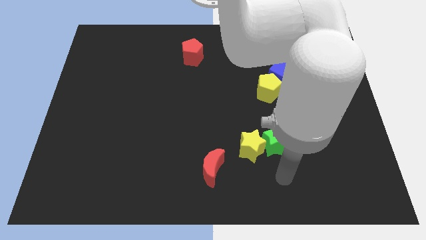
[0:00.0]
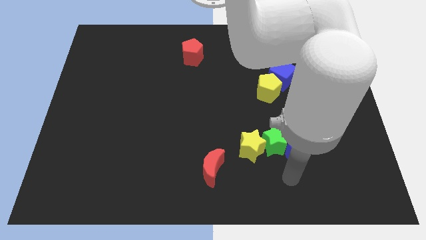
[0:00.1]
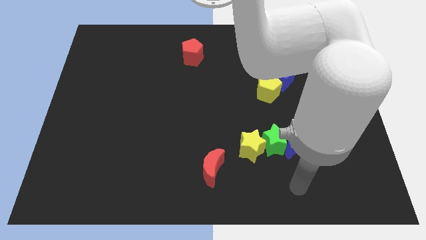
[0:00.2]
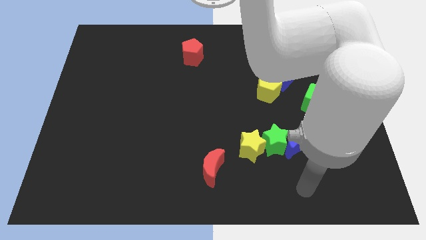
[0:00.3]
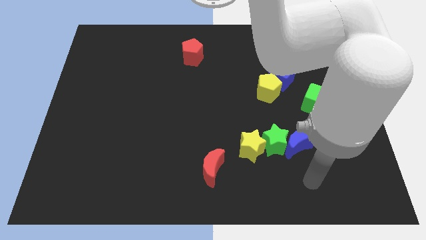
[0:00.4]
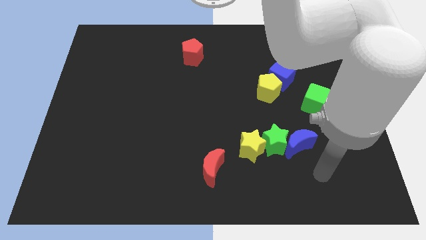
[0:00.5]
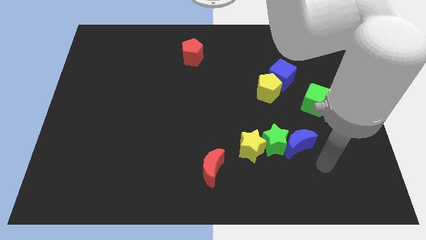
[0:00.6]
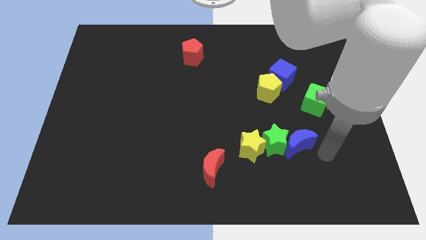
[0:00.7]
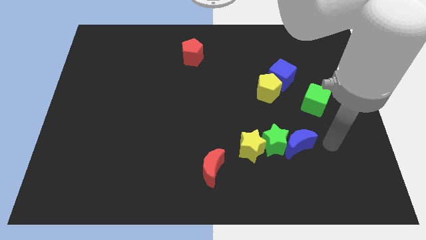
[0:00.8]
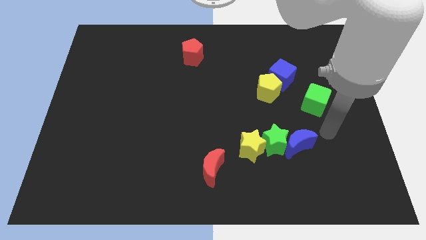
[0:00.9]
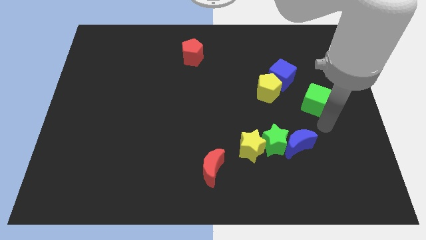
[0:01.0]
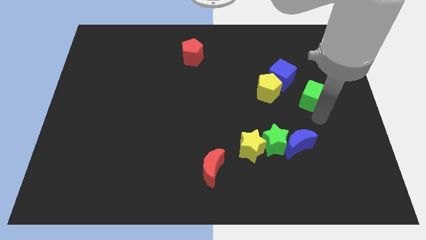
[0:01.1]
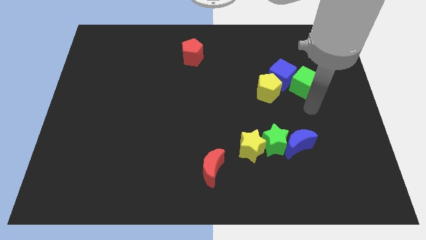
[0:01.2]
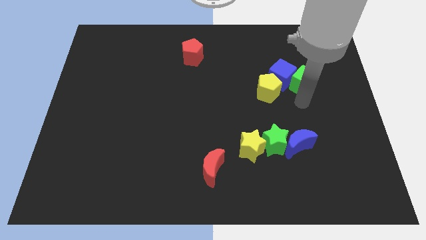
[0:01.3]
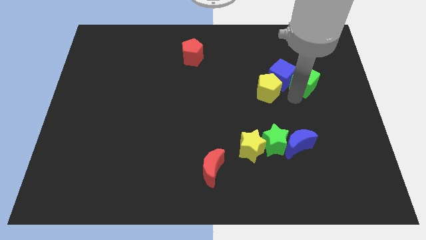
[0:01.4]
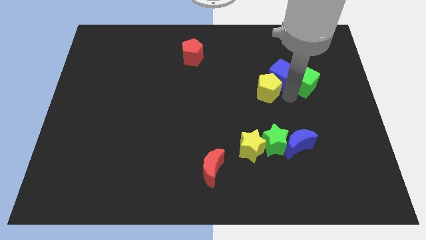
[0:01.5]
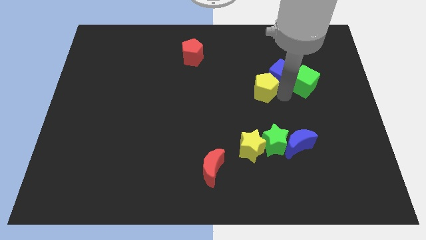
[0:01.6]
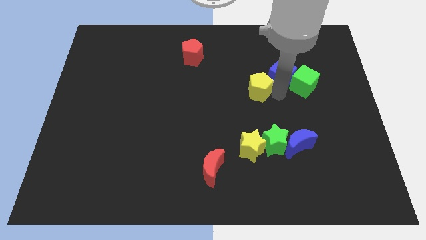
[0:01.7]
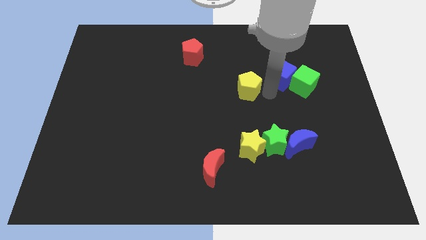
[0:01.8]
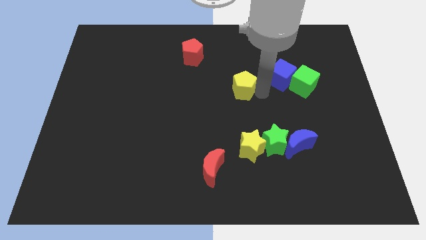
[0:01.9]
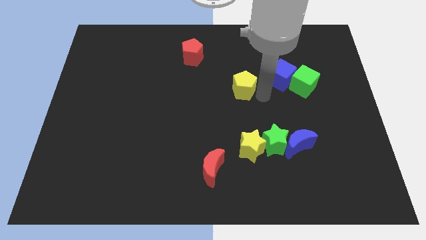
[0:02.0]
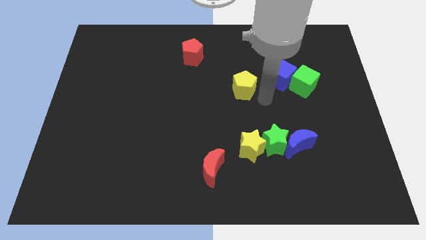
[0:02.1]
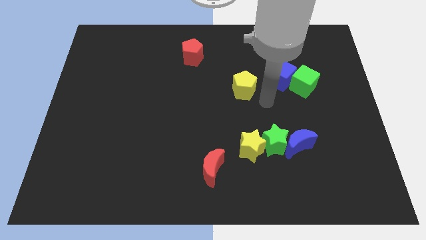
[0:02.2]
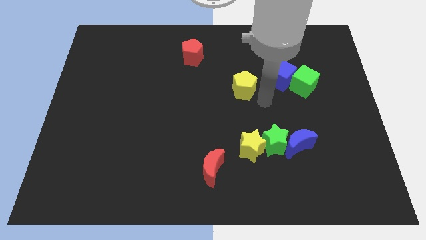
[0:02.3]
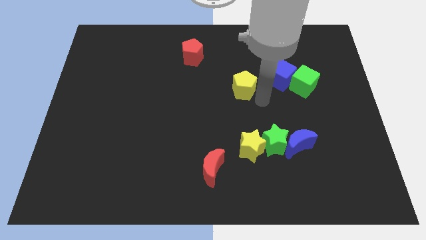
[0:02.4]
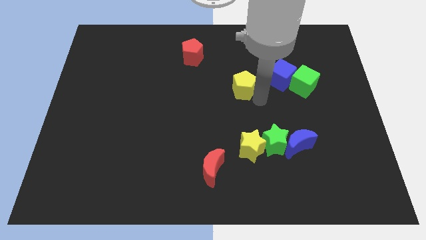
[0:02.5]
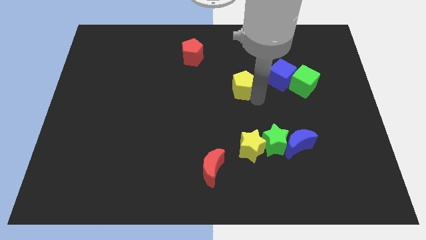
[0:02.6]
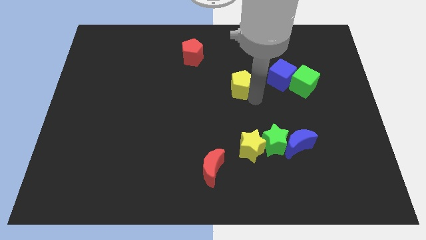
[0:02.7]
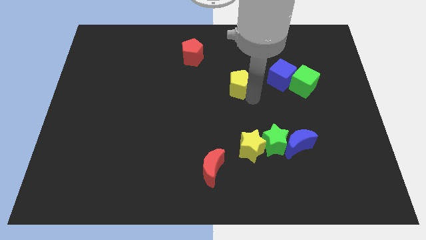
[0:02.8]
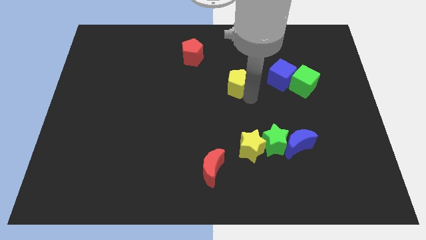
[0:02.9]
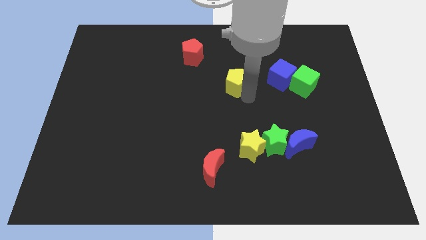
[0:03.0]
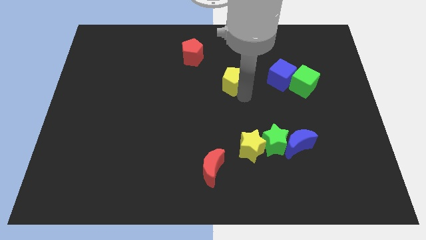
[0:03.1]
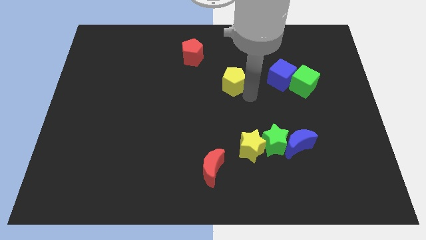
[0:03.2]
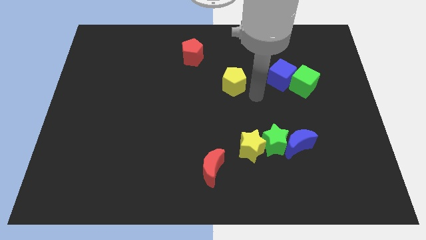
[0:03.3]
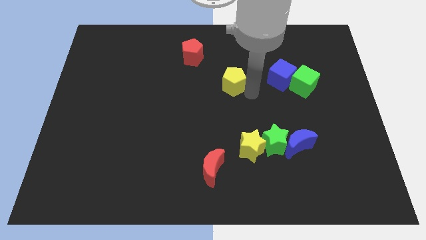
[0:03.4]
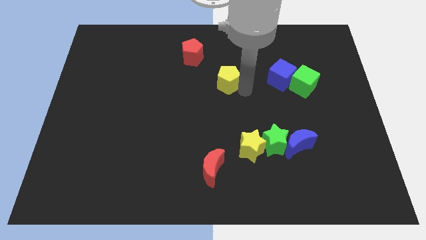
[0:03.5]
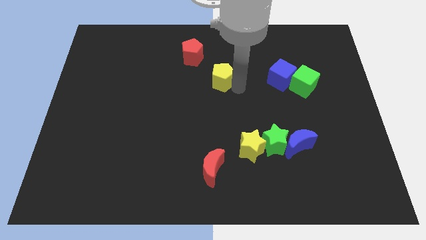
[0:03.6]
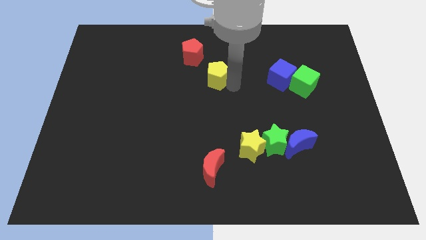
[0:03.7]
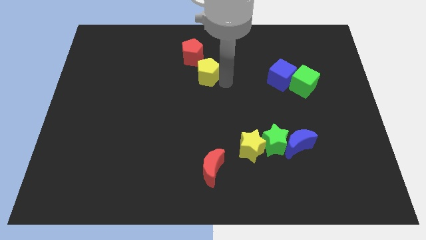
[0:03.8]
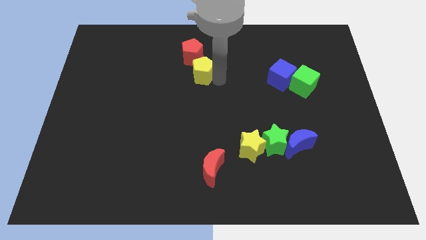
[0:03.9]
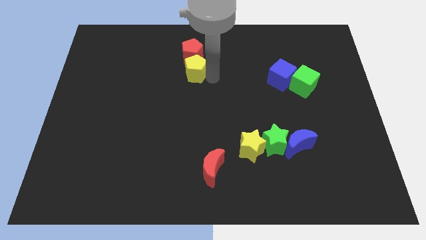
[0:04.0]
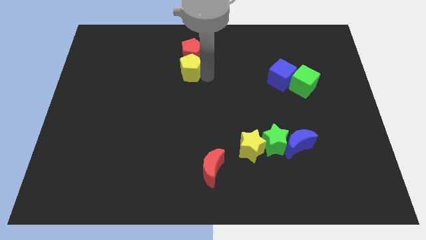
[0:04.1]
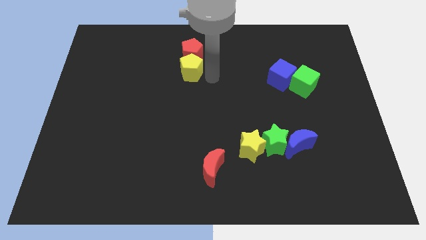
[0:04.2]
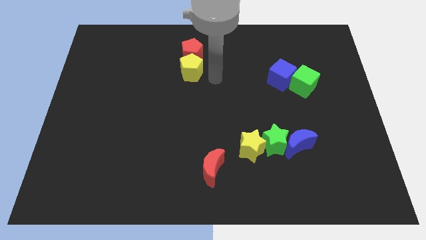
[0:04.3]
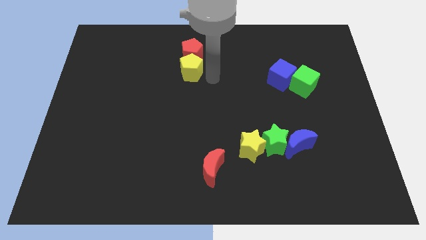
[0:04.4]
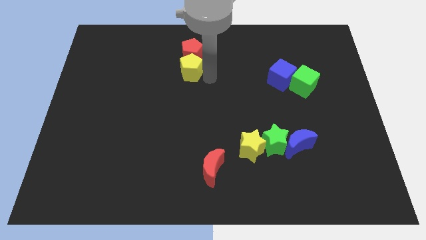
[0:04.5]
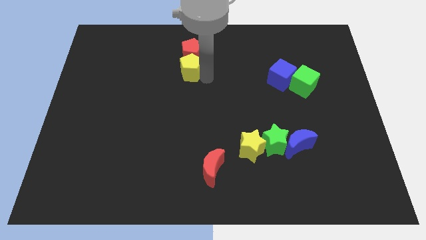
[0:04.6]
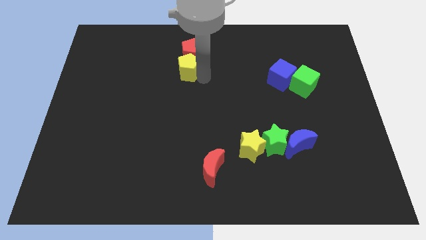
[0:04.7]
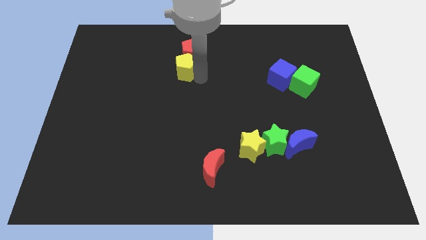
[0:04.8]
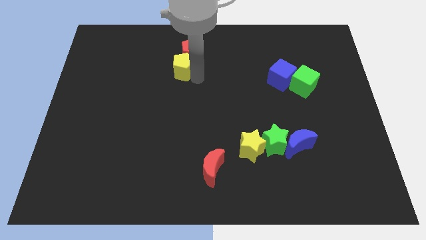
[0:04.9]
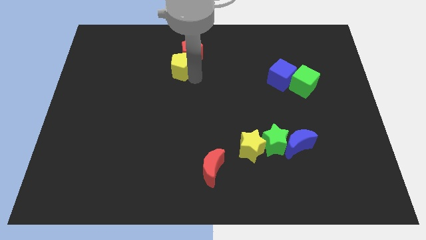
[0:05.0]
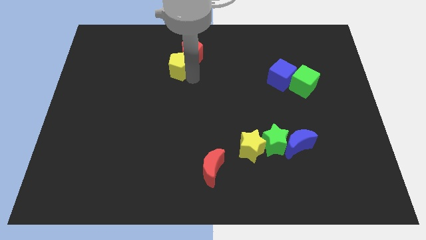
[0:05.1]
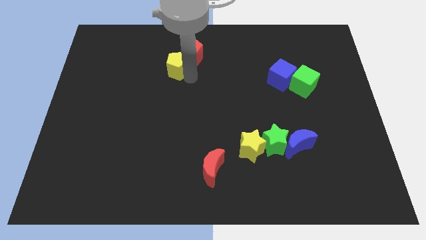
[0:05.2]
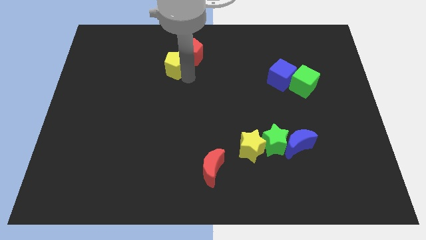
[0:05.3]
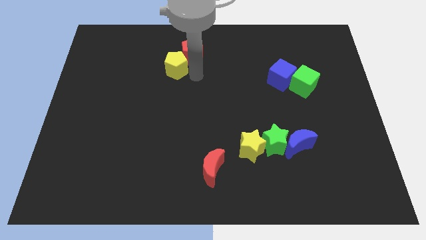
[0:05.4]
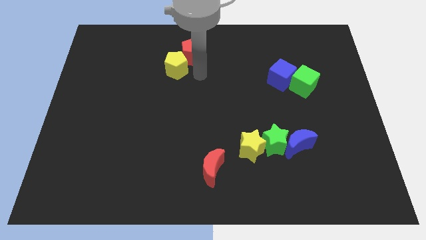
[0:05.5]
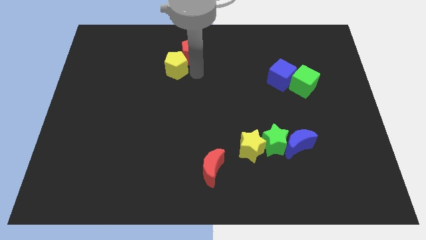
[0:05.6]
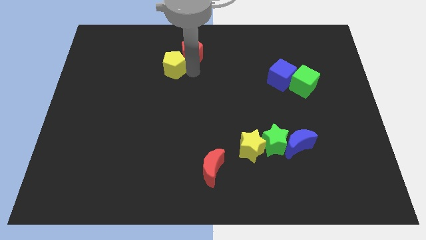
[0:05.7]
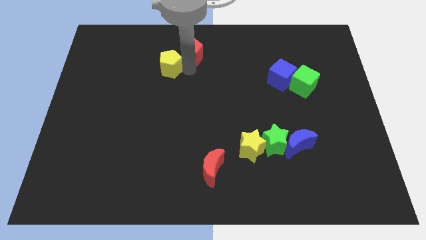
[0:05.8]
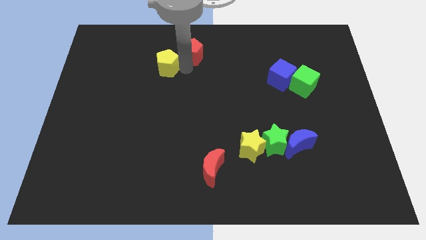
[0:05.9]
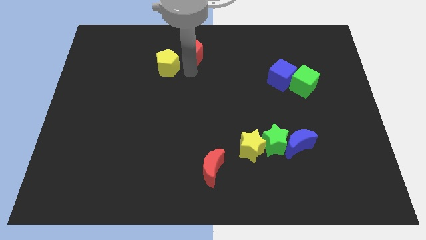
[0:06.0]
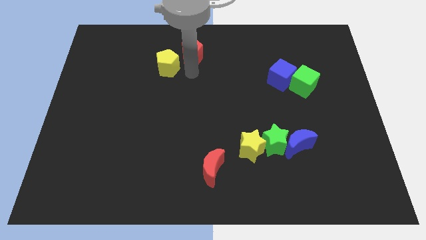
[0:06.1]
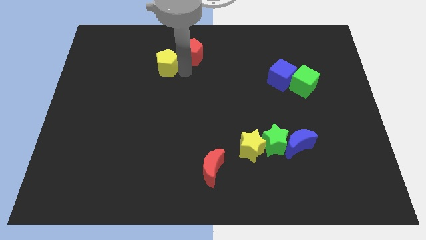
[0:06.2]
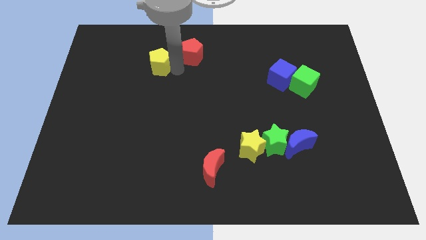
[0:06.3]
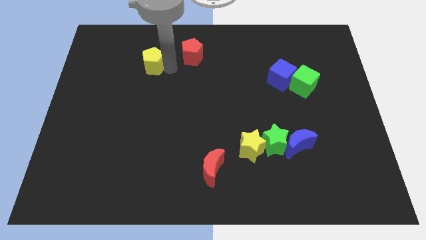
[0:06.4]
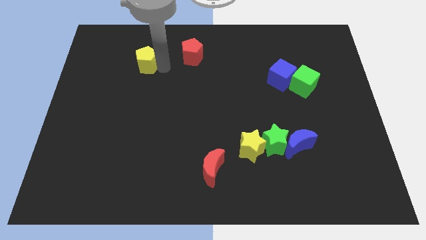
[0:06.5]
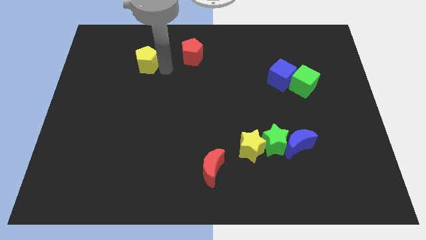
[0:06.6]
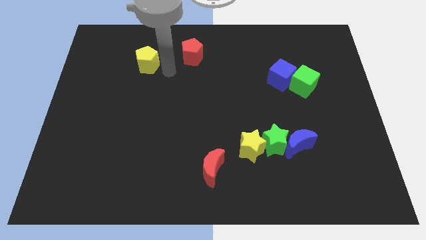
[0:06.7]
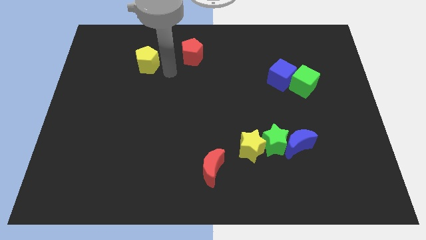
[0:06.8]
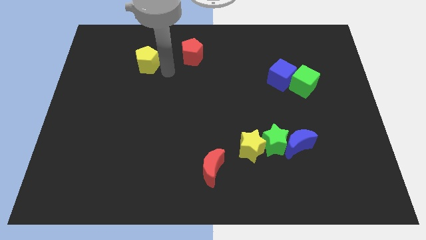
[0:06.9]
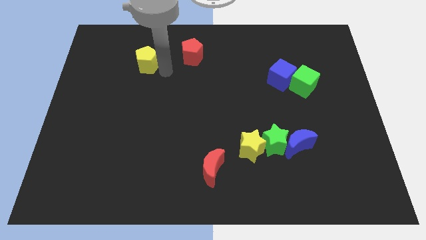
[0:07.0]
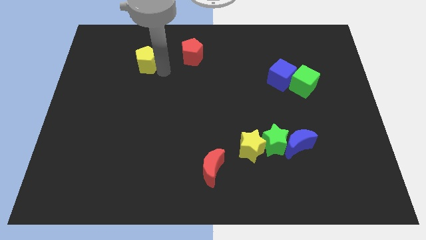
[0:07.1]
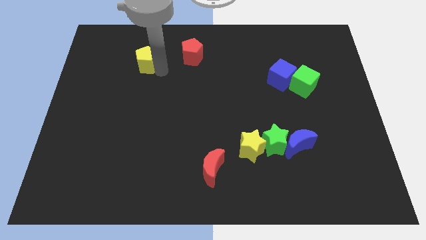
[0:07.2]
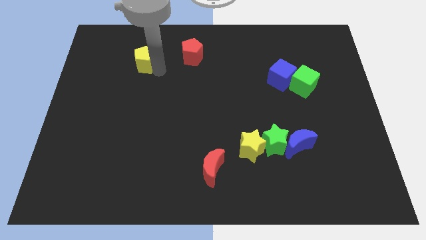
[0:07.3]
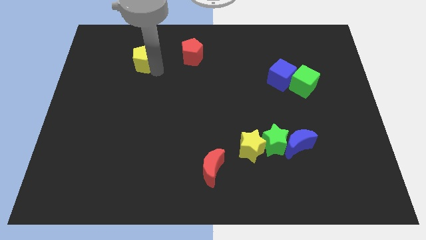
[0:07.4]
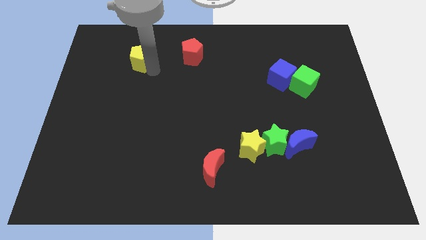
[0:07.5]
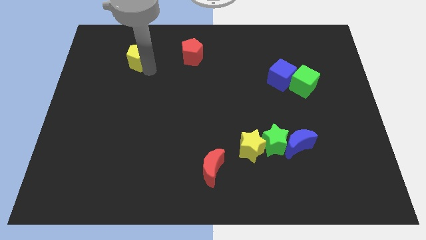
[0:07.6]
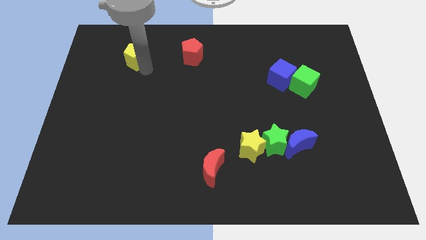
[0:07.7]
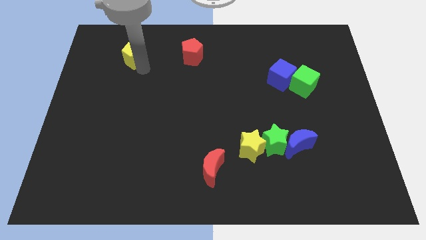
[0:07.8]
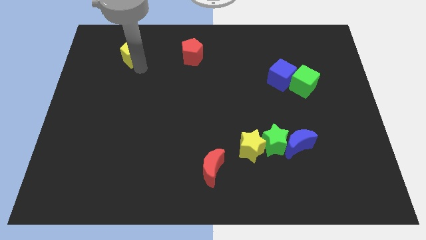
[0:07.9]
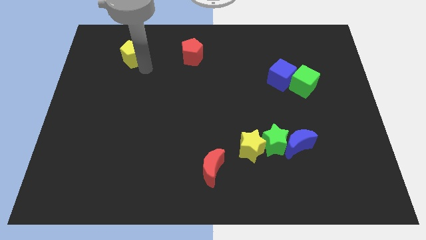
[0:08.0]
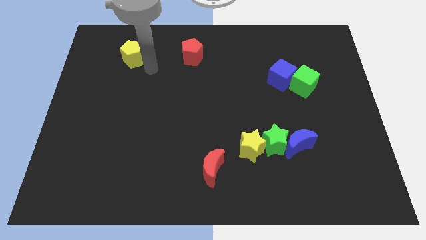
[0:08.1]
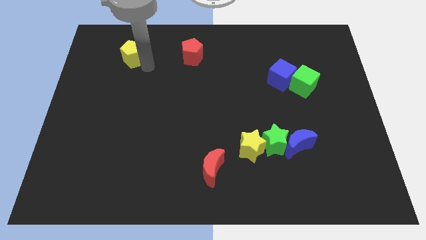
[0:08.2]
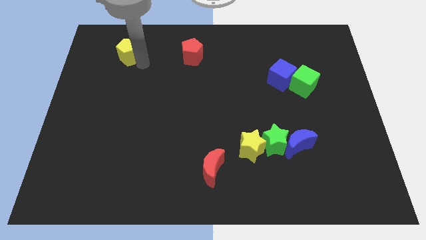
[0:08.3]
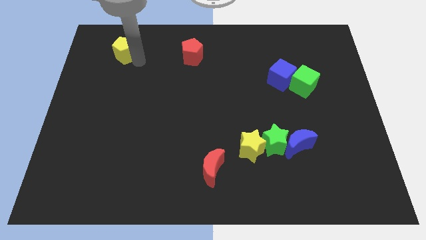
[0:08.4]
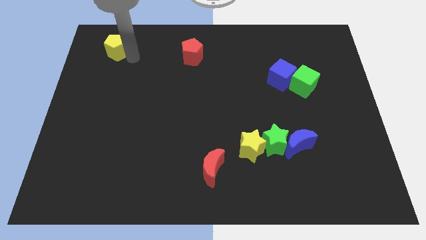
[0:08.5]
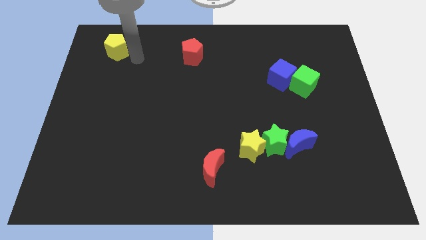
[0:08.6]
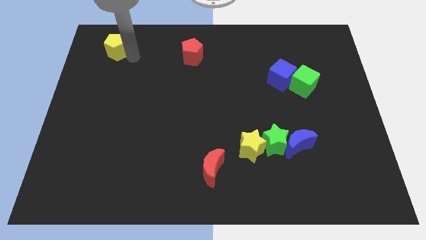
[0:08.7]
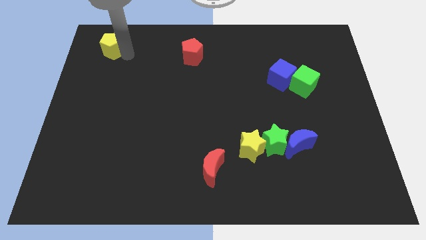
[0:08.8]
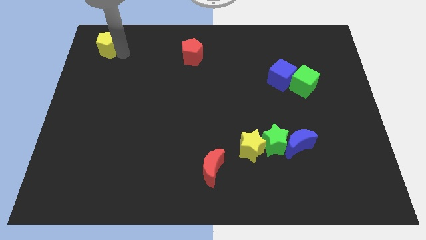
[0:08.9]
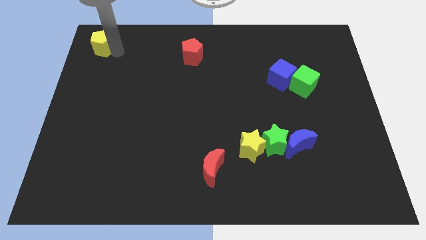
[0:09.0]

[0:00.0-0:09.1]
put the yellow pentagon to the upper left corner
